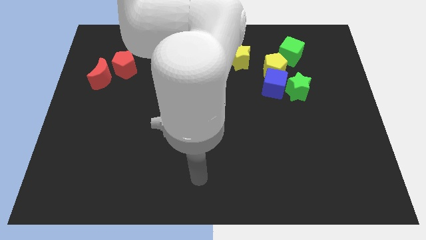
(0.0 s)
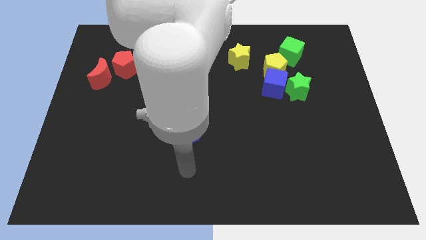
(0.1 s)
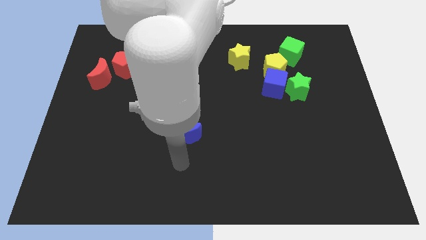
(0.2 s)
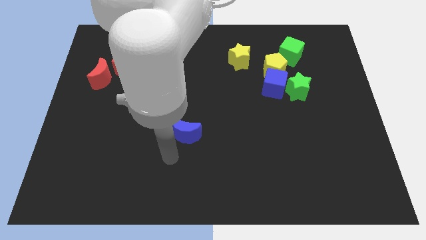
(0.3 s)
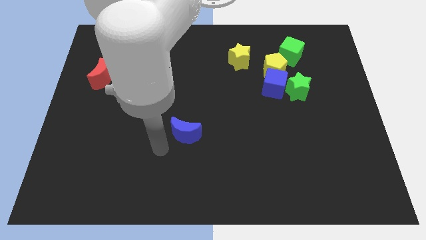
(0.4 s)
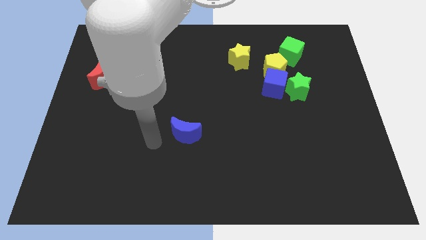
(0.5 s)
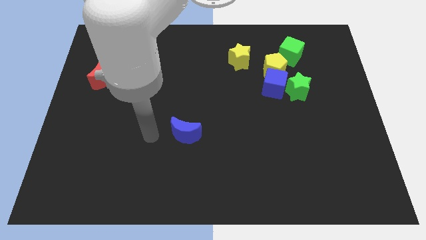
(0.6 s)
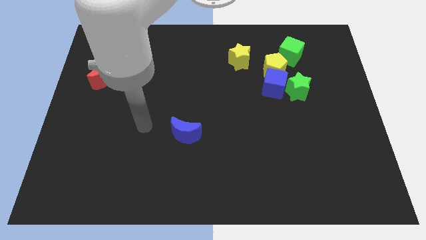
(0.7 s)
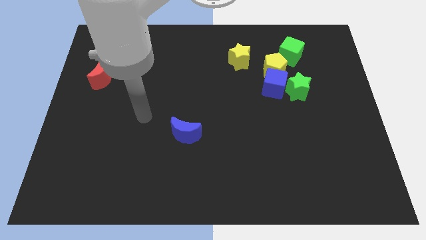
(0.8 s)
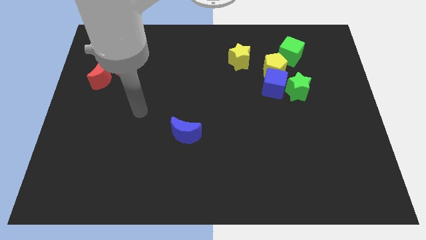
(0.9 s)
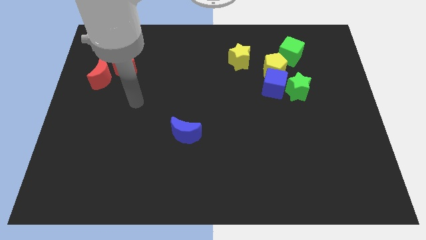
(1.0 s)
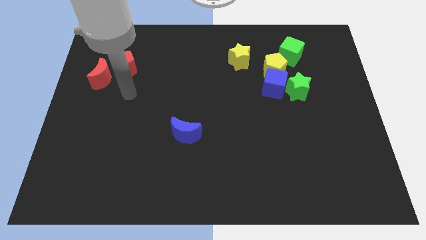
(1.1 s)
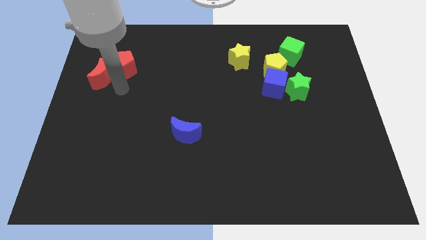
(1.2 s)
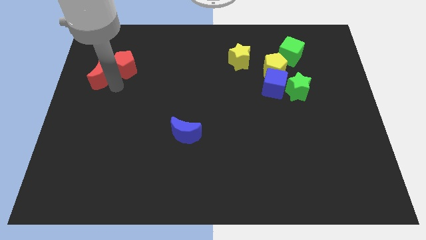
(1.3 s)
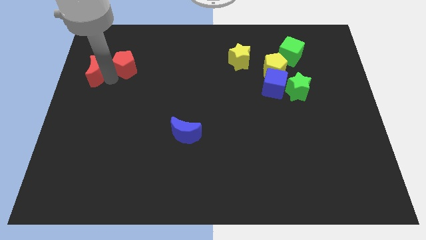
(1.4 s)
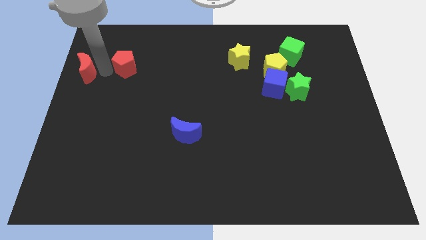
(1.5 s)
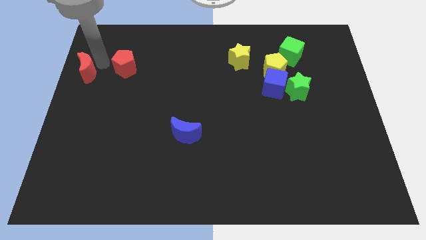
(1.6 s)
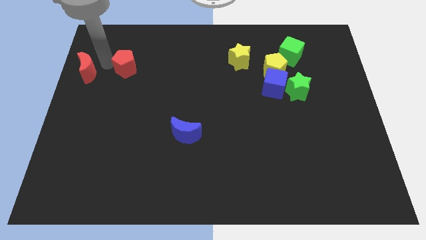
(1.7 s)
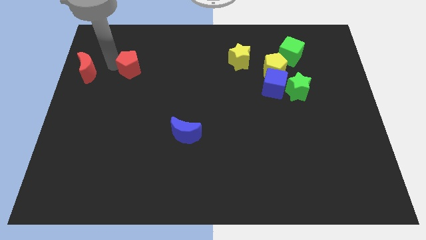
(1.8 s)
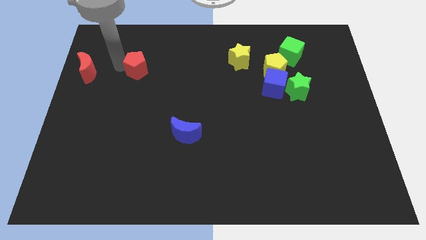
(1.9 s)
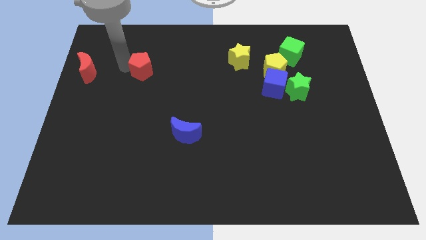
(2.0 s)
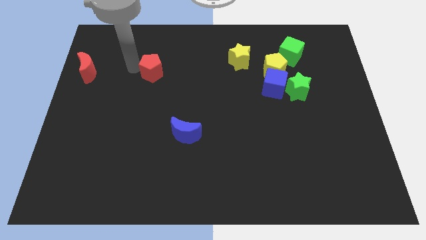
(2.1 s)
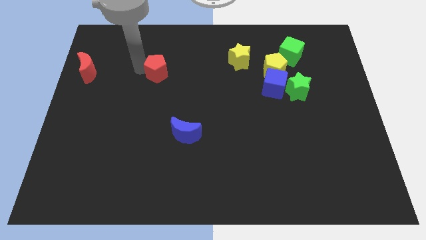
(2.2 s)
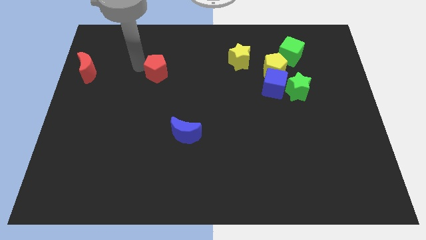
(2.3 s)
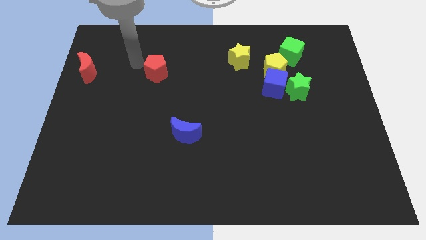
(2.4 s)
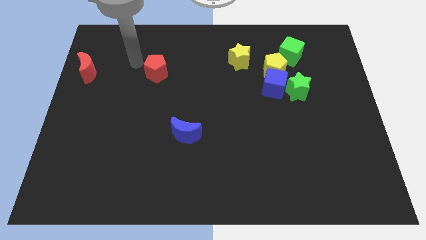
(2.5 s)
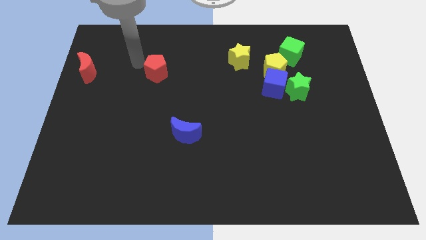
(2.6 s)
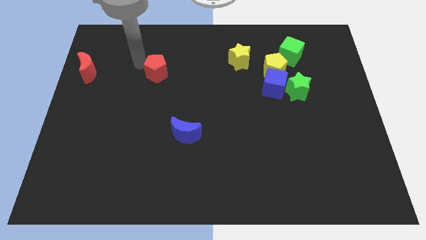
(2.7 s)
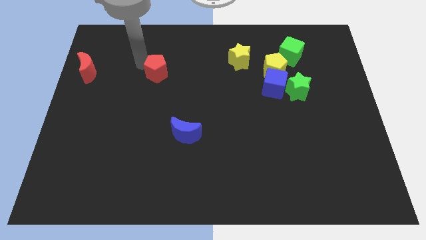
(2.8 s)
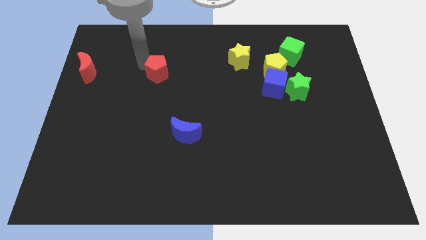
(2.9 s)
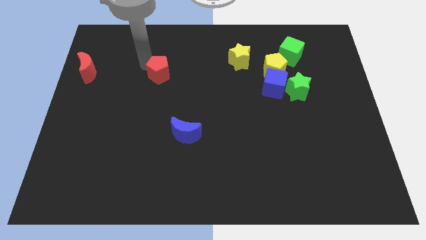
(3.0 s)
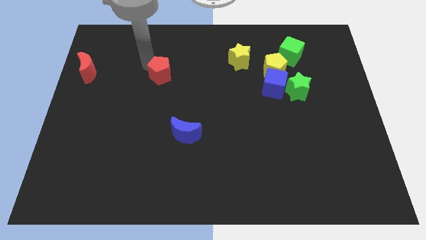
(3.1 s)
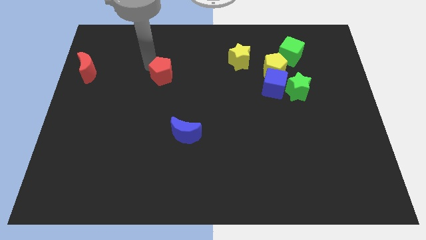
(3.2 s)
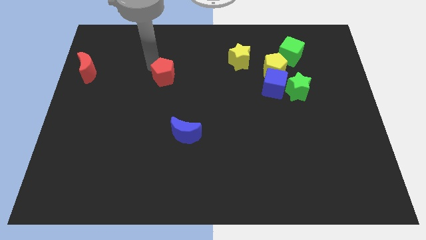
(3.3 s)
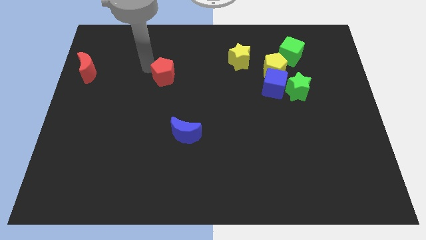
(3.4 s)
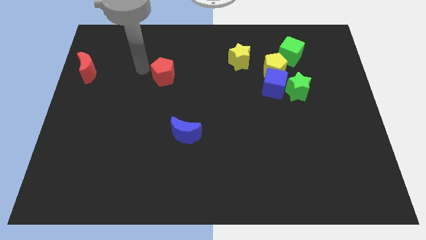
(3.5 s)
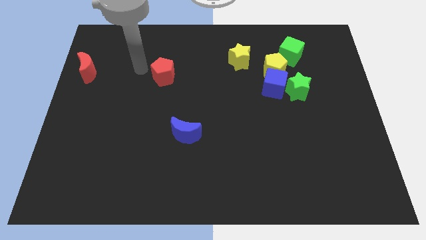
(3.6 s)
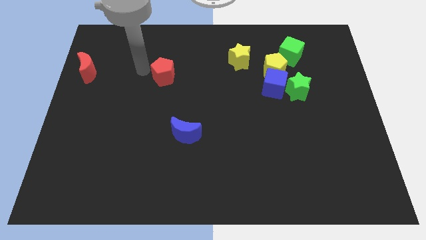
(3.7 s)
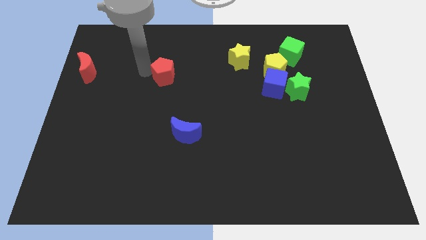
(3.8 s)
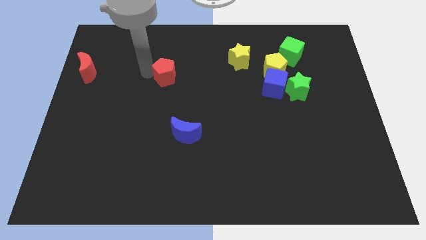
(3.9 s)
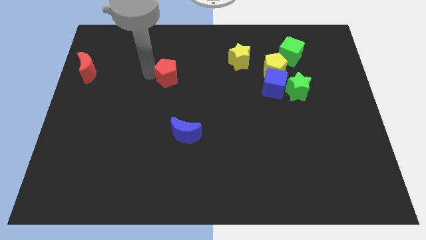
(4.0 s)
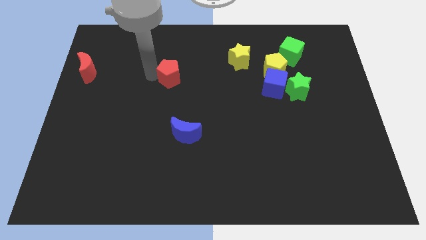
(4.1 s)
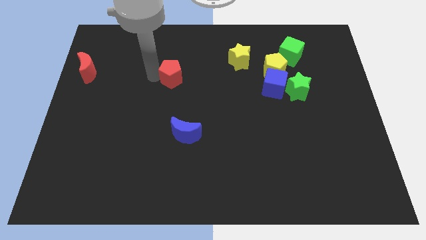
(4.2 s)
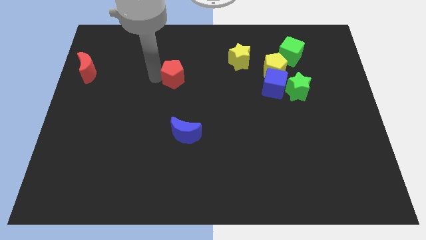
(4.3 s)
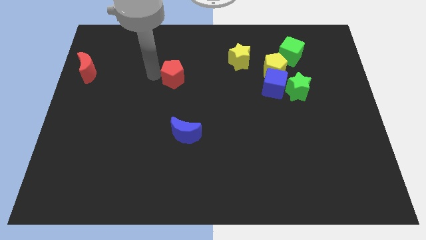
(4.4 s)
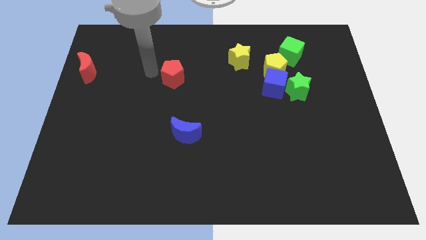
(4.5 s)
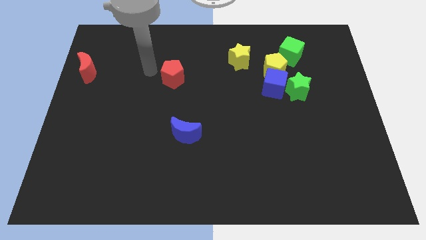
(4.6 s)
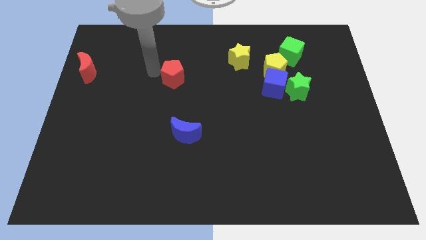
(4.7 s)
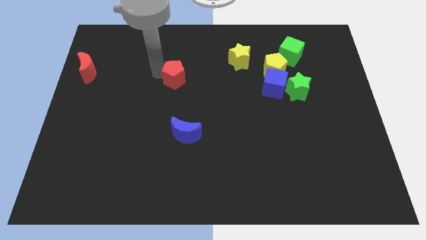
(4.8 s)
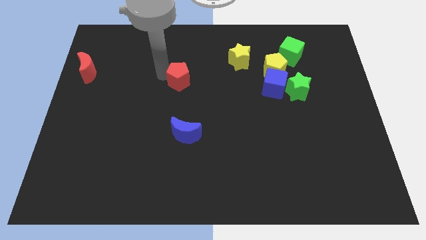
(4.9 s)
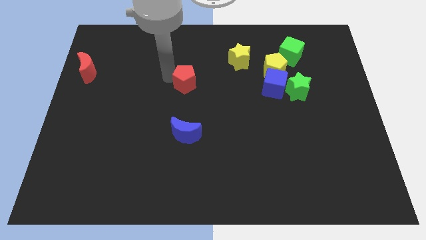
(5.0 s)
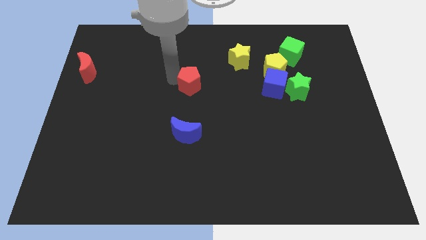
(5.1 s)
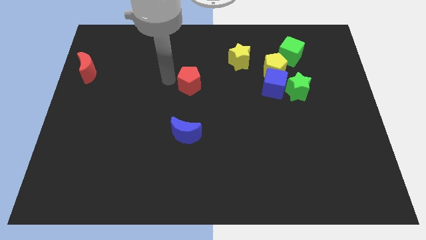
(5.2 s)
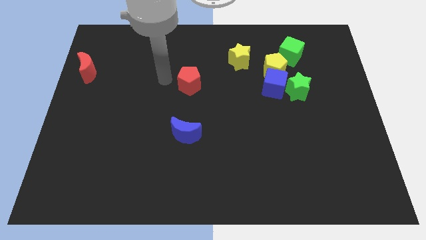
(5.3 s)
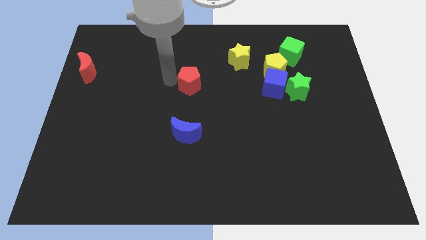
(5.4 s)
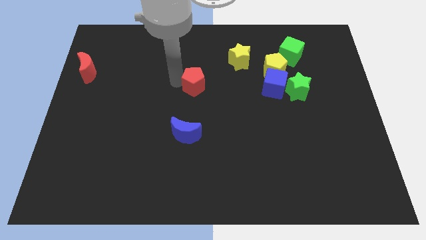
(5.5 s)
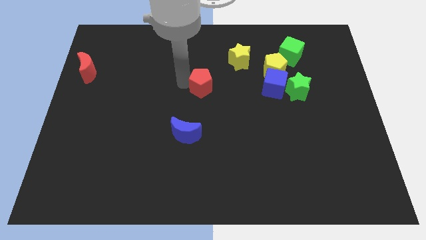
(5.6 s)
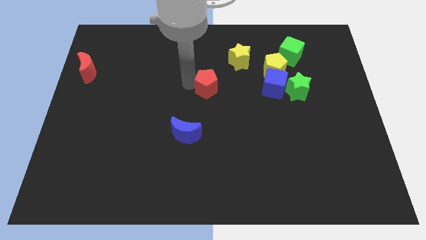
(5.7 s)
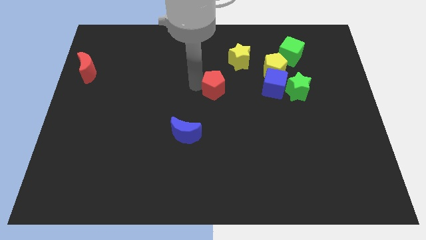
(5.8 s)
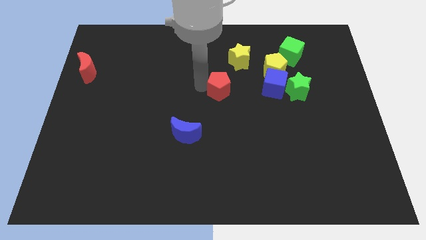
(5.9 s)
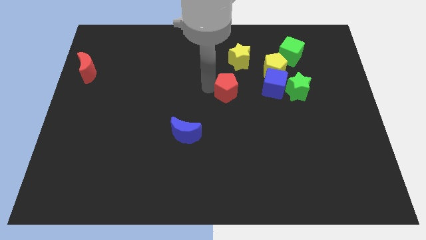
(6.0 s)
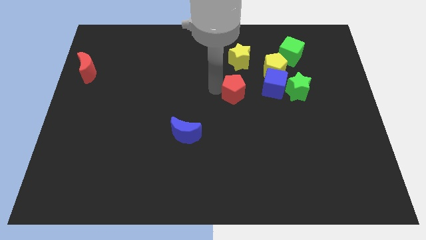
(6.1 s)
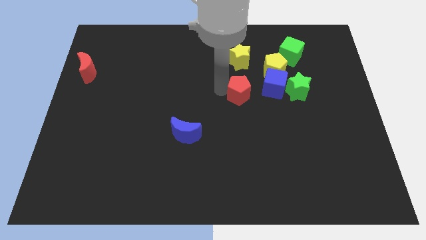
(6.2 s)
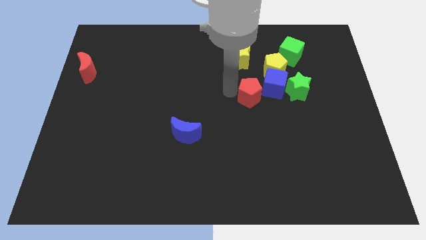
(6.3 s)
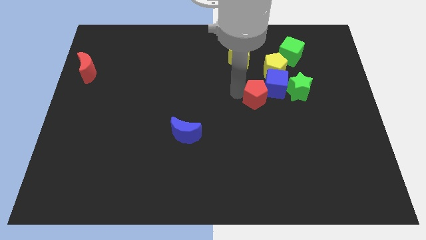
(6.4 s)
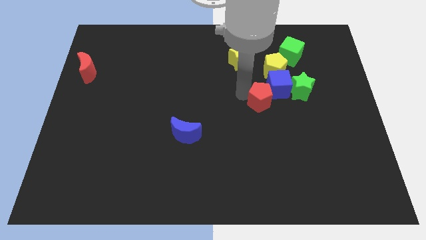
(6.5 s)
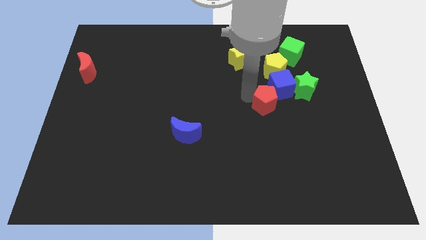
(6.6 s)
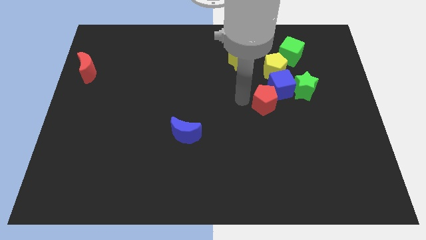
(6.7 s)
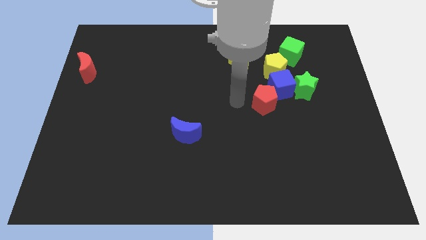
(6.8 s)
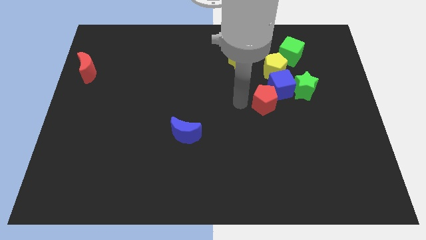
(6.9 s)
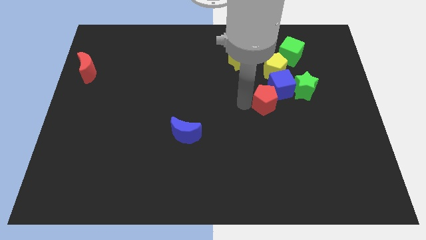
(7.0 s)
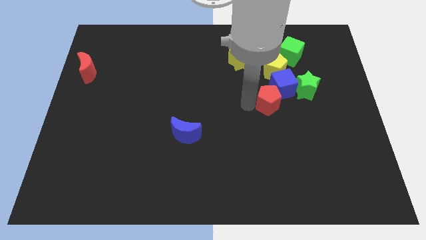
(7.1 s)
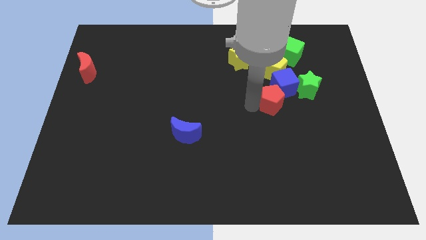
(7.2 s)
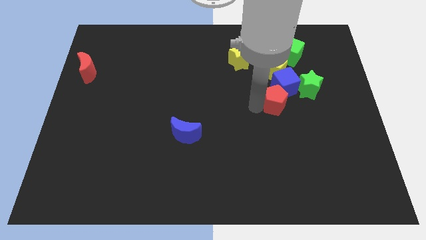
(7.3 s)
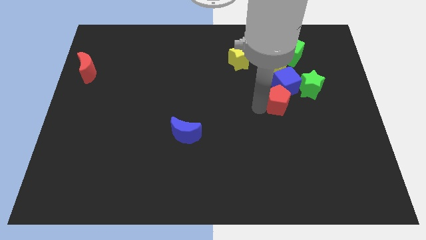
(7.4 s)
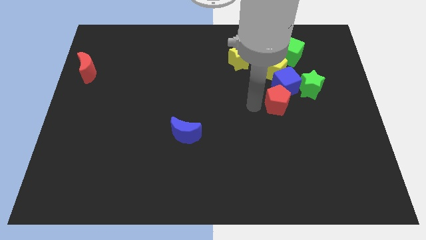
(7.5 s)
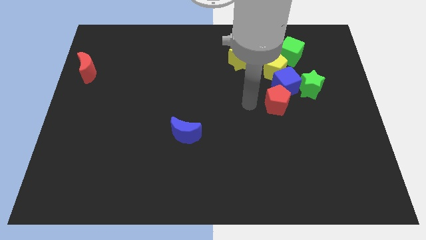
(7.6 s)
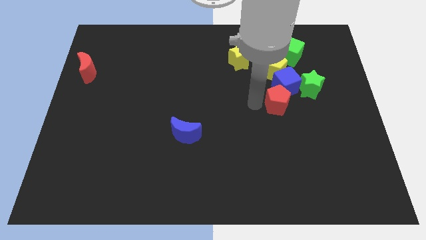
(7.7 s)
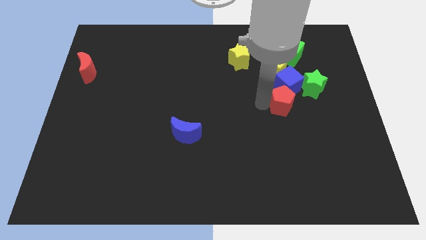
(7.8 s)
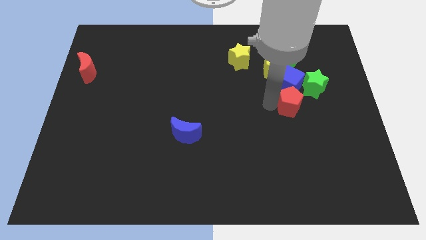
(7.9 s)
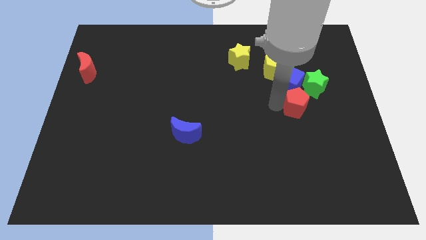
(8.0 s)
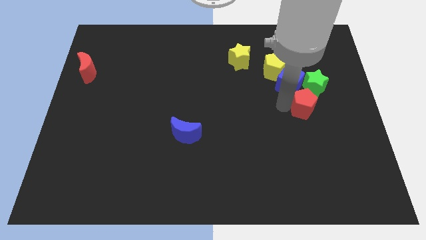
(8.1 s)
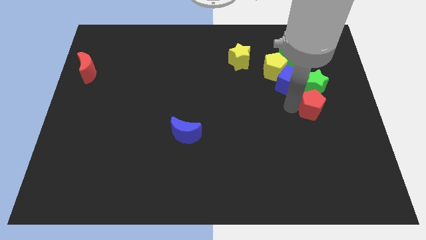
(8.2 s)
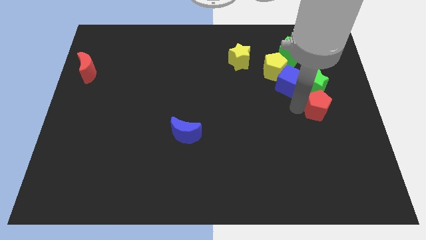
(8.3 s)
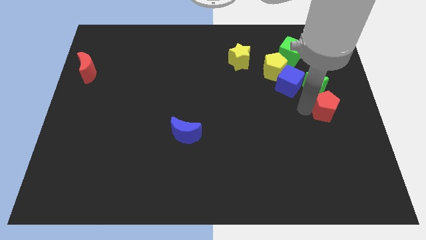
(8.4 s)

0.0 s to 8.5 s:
push the red pentagon to the center right
